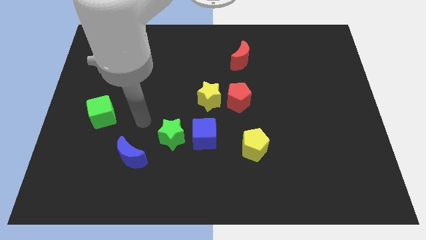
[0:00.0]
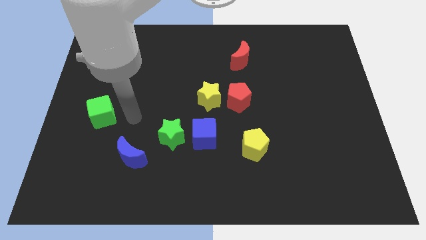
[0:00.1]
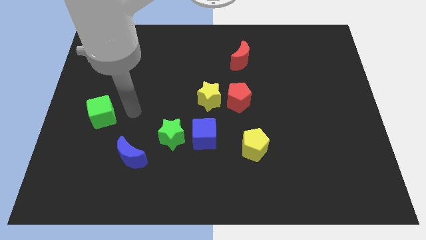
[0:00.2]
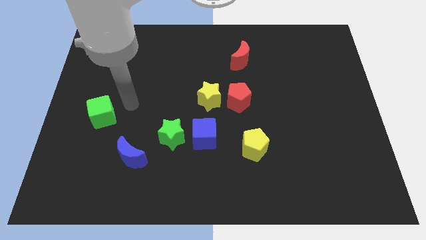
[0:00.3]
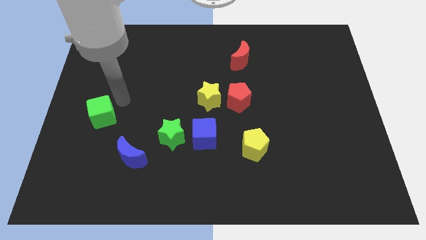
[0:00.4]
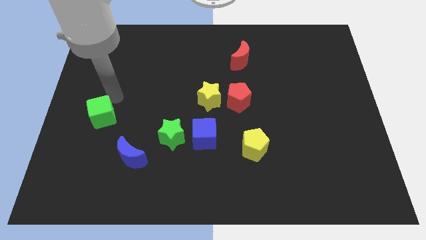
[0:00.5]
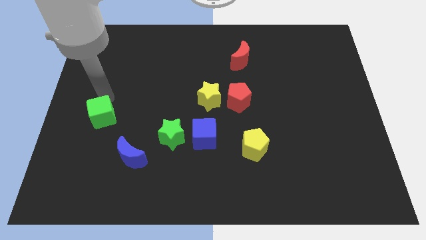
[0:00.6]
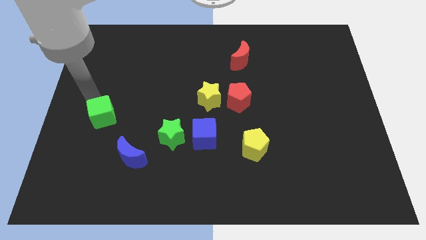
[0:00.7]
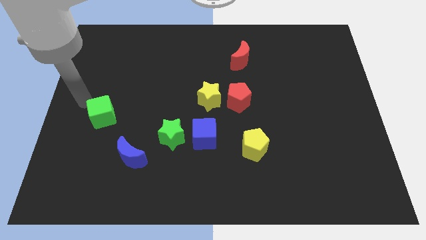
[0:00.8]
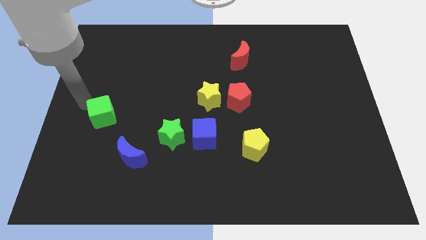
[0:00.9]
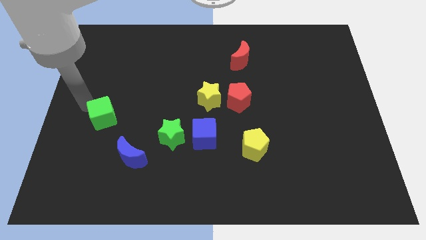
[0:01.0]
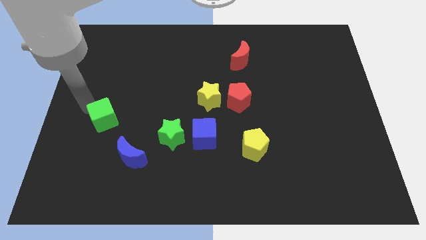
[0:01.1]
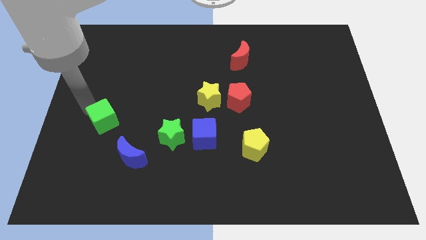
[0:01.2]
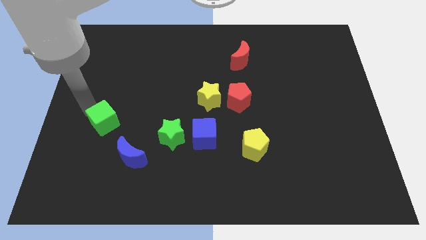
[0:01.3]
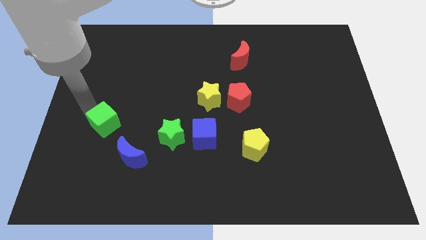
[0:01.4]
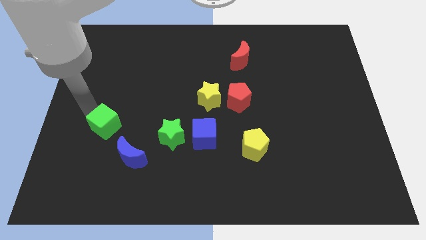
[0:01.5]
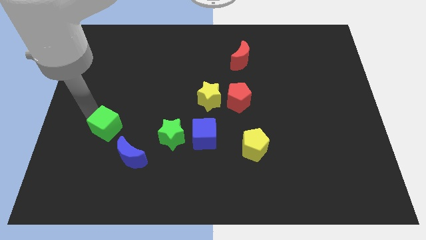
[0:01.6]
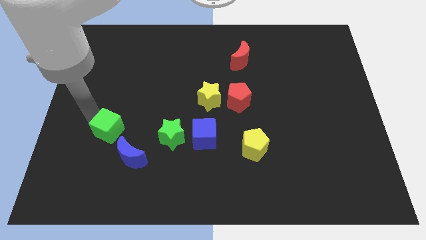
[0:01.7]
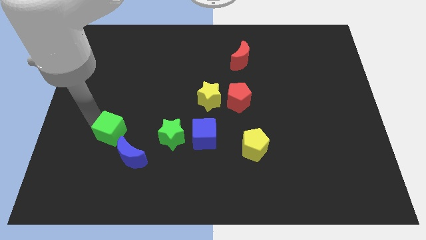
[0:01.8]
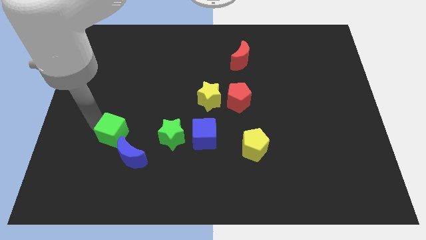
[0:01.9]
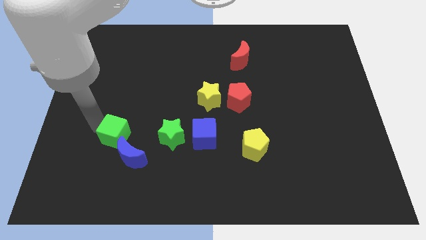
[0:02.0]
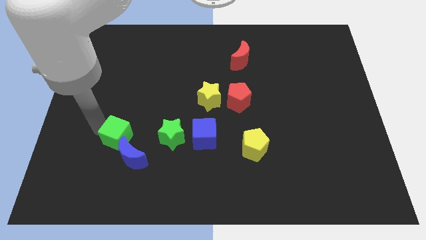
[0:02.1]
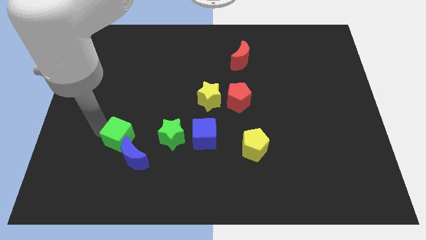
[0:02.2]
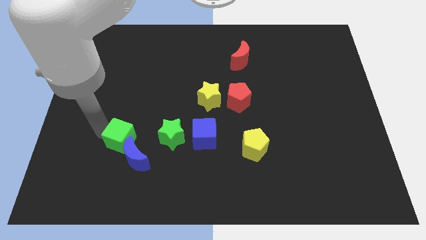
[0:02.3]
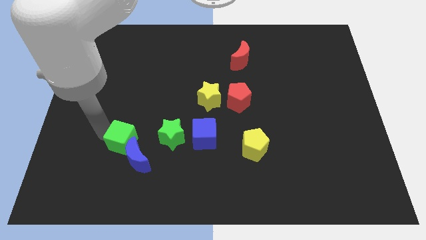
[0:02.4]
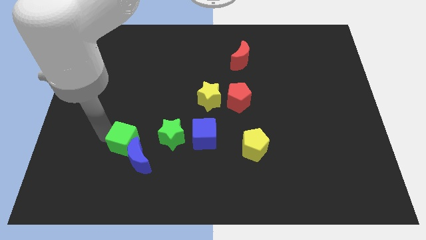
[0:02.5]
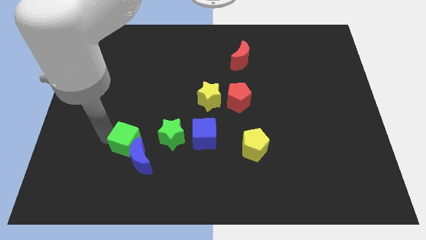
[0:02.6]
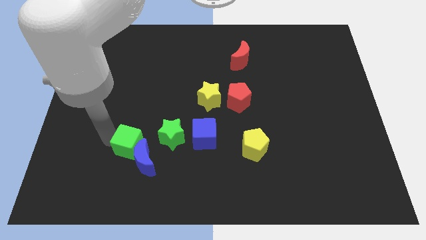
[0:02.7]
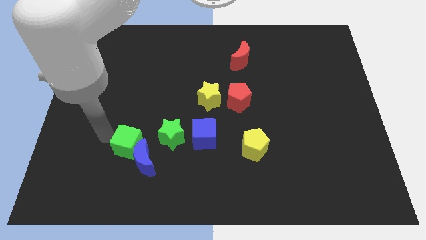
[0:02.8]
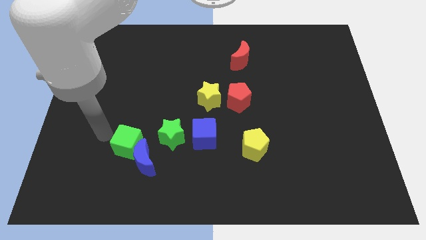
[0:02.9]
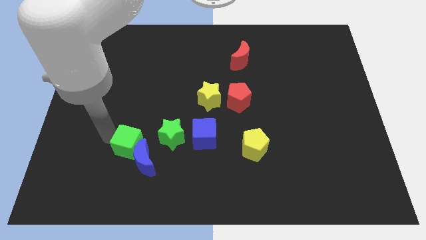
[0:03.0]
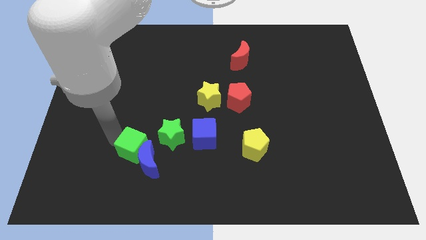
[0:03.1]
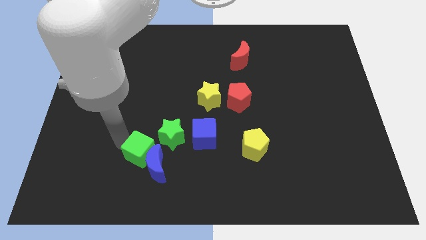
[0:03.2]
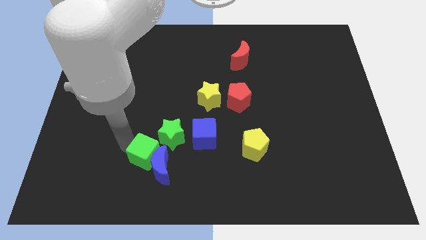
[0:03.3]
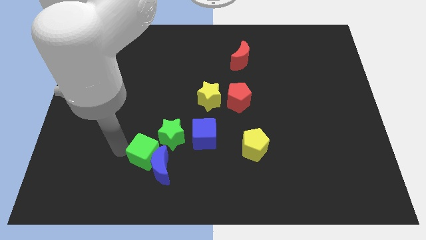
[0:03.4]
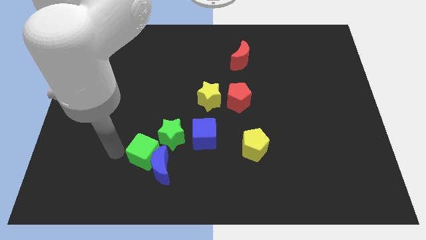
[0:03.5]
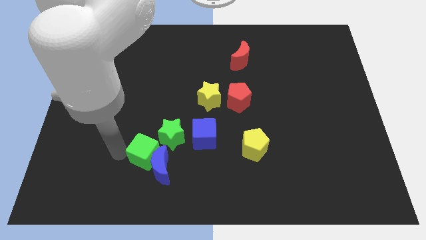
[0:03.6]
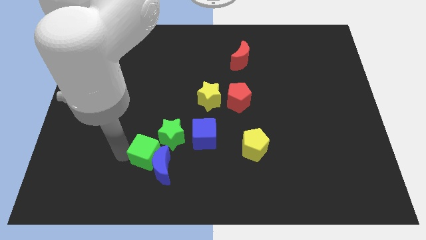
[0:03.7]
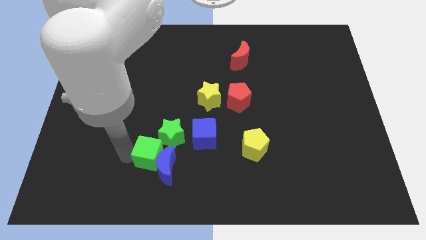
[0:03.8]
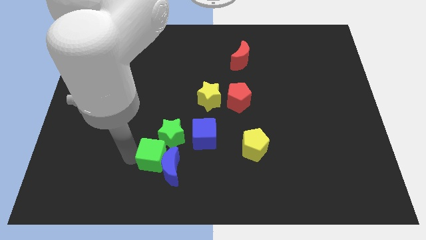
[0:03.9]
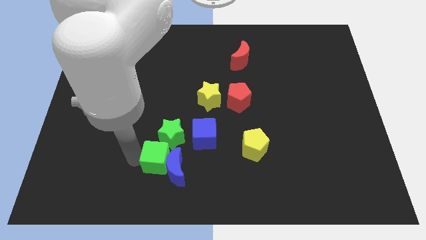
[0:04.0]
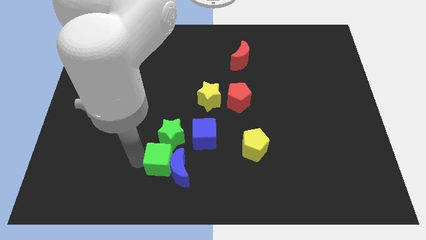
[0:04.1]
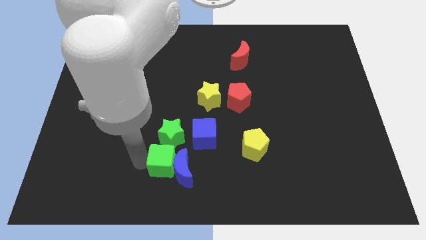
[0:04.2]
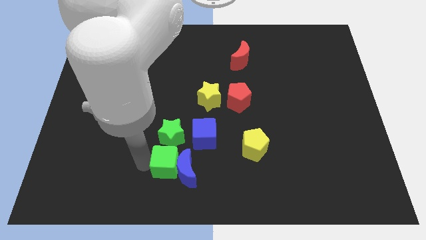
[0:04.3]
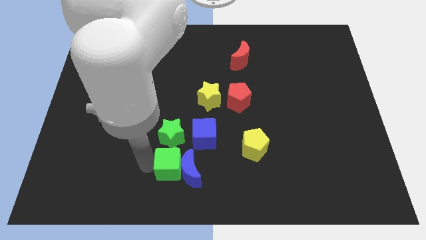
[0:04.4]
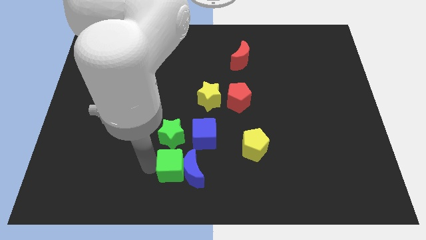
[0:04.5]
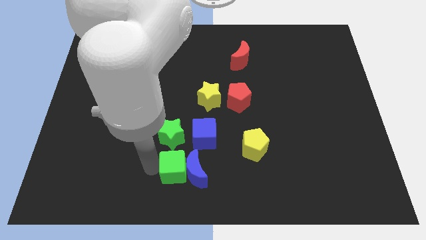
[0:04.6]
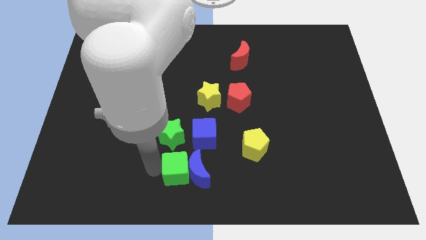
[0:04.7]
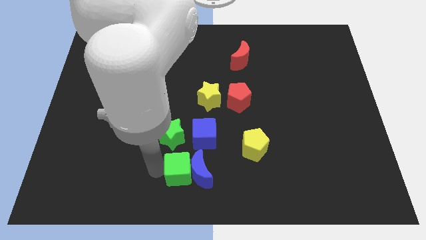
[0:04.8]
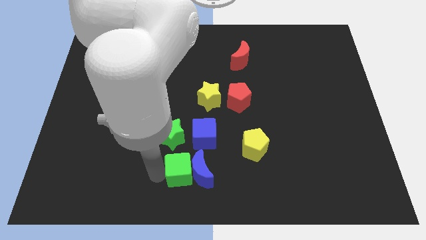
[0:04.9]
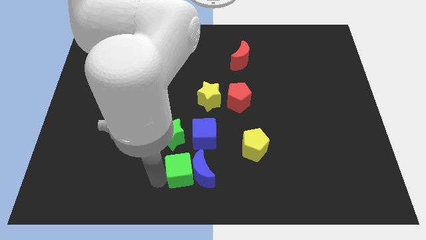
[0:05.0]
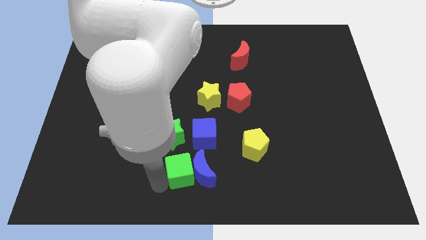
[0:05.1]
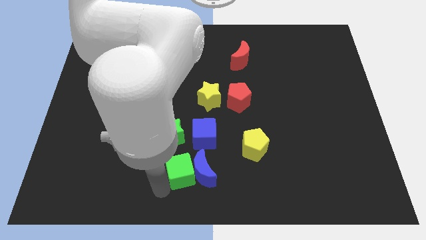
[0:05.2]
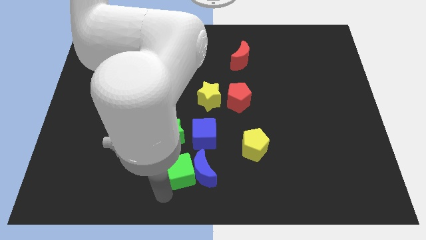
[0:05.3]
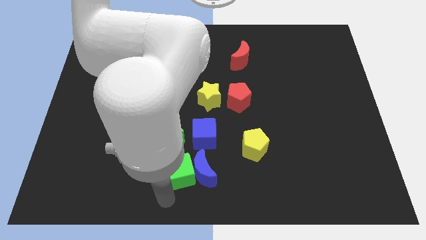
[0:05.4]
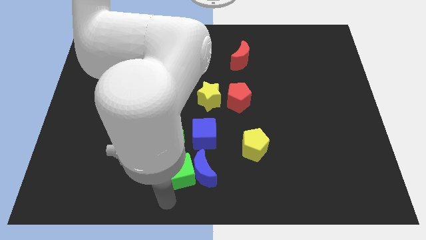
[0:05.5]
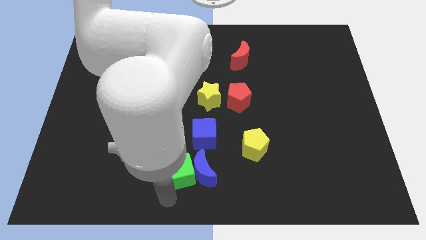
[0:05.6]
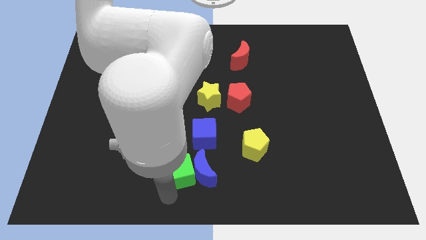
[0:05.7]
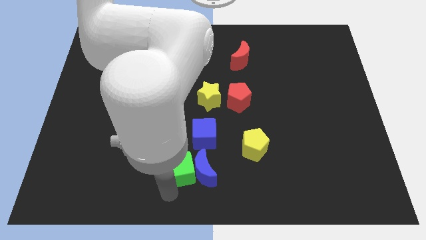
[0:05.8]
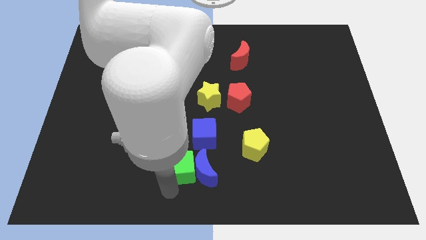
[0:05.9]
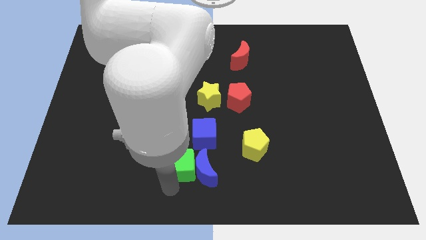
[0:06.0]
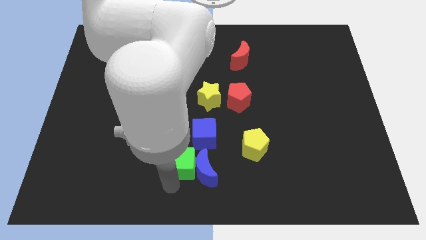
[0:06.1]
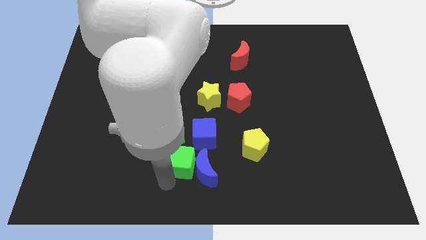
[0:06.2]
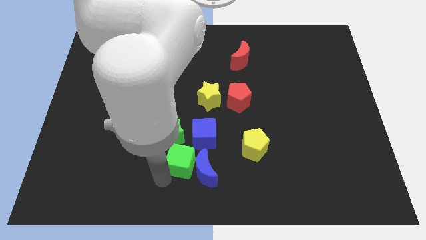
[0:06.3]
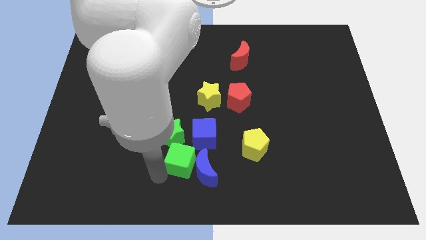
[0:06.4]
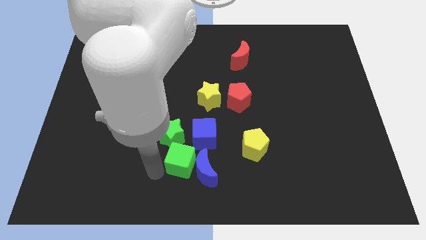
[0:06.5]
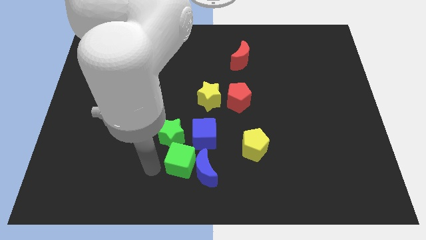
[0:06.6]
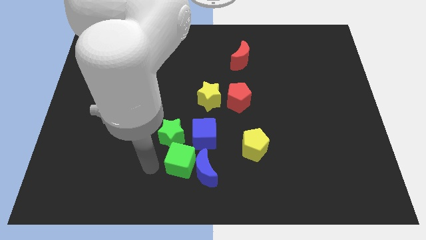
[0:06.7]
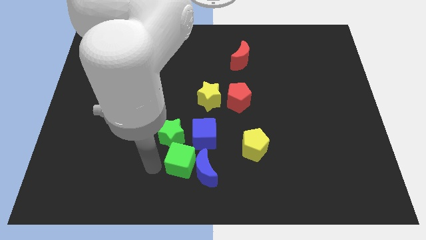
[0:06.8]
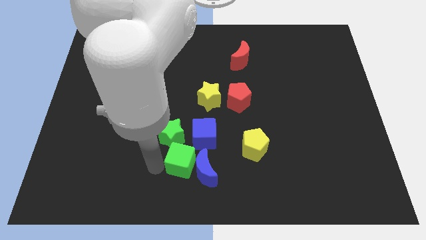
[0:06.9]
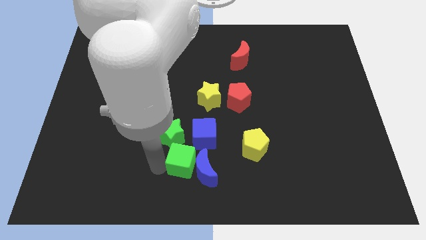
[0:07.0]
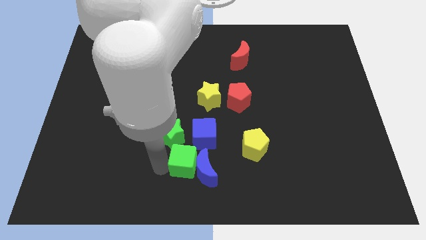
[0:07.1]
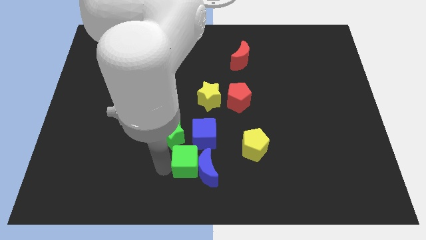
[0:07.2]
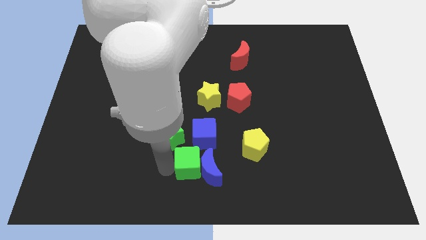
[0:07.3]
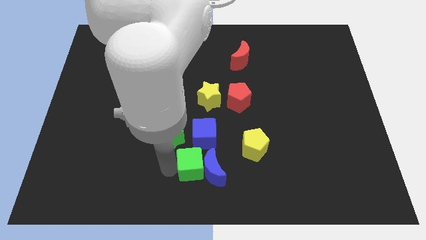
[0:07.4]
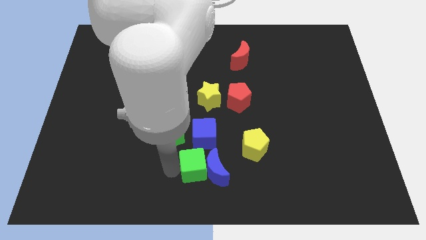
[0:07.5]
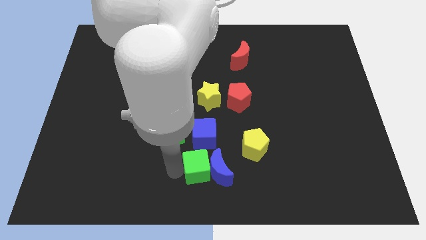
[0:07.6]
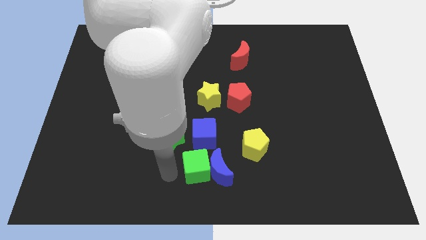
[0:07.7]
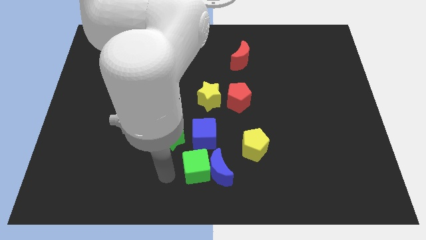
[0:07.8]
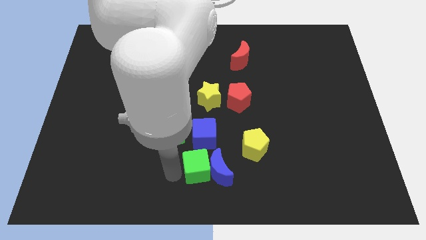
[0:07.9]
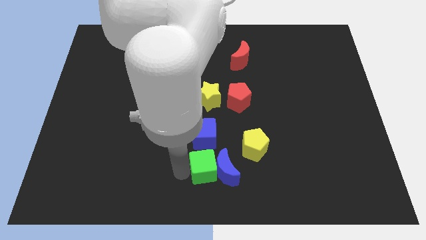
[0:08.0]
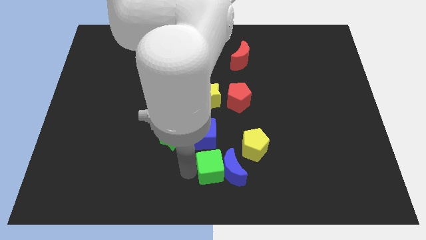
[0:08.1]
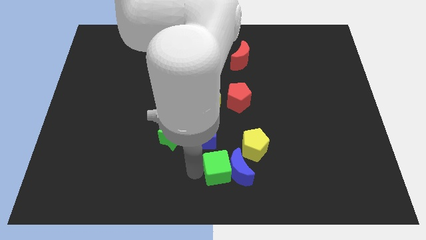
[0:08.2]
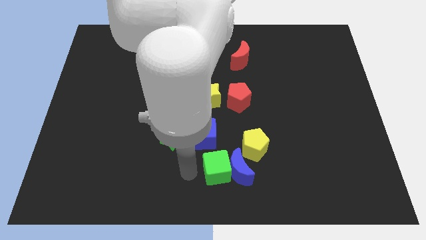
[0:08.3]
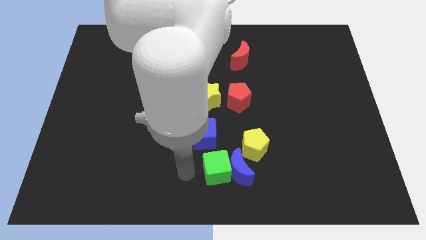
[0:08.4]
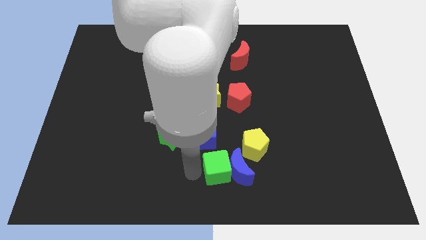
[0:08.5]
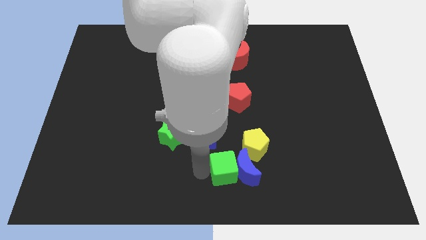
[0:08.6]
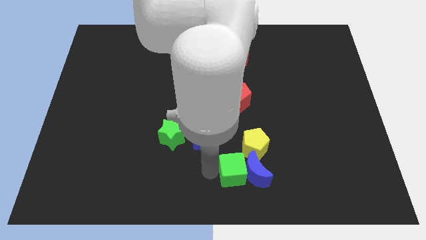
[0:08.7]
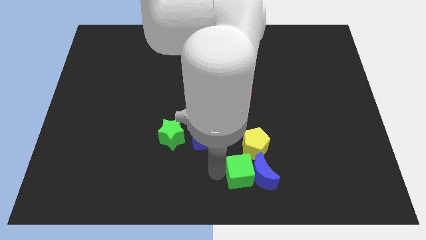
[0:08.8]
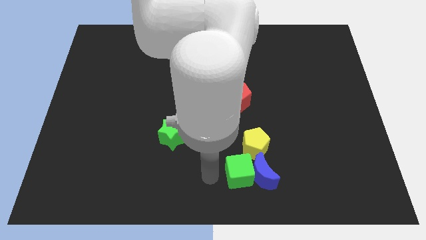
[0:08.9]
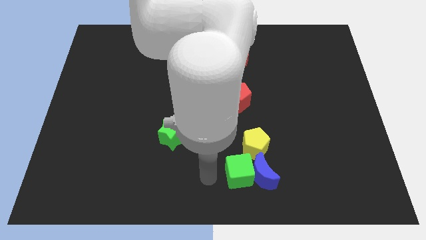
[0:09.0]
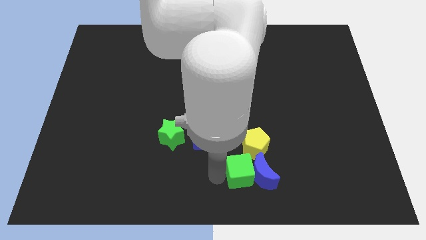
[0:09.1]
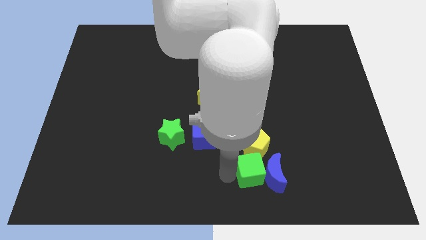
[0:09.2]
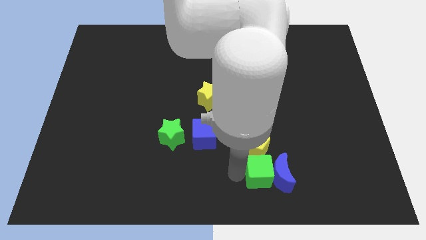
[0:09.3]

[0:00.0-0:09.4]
push the green cube diagonally down and to the right of the yellow pentagon
